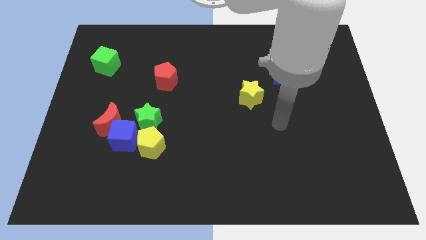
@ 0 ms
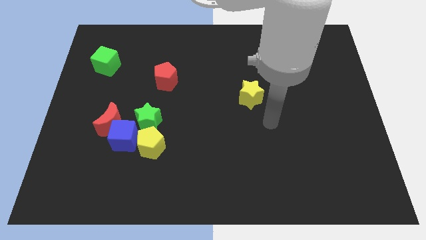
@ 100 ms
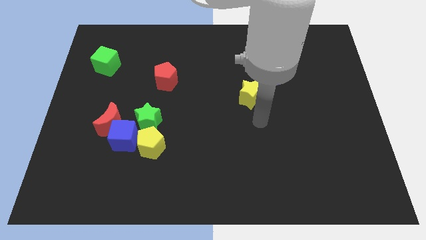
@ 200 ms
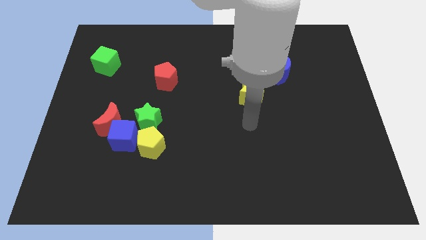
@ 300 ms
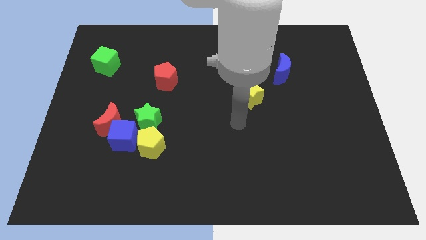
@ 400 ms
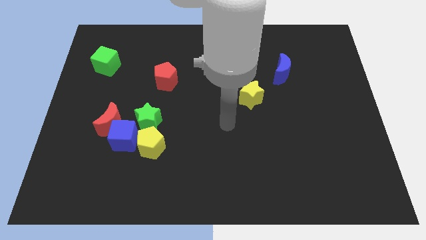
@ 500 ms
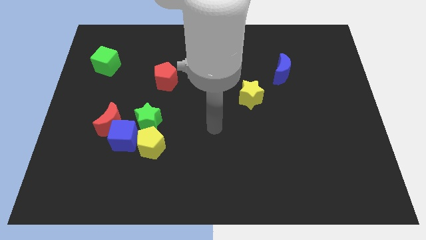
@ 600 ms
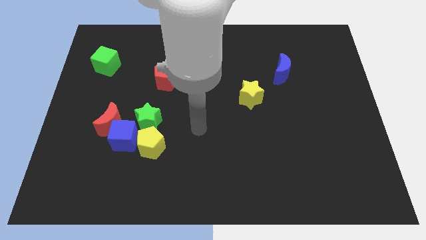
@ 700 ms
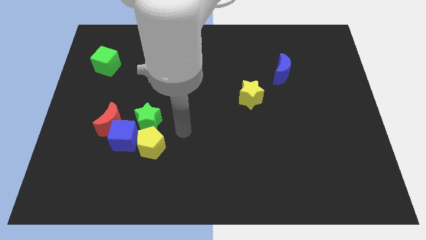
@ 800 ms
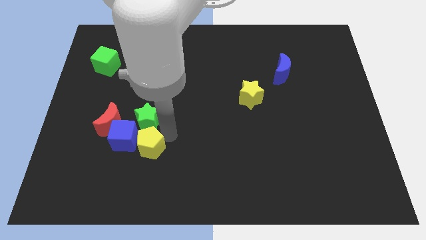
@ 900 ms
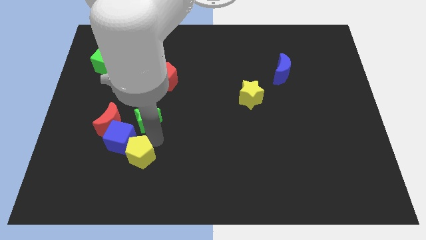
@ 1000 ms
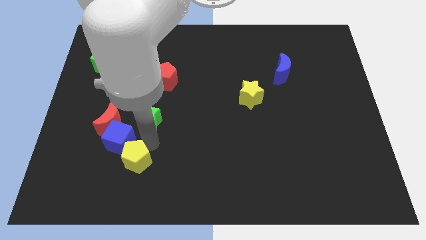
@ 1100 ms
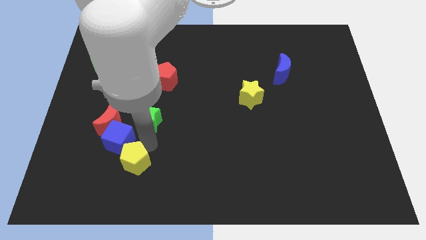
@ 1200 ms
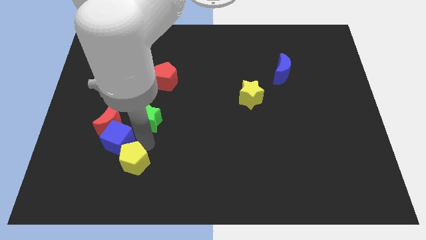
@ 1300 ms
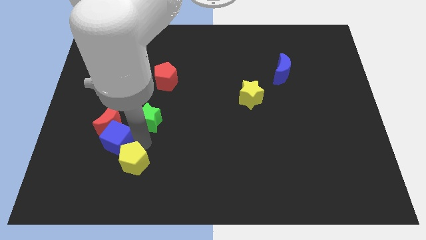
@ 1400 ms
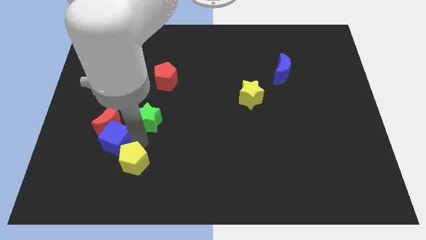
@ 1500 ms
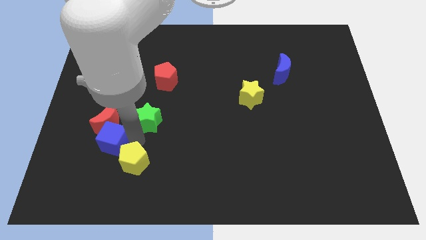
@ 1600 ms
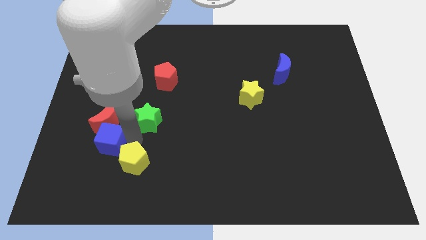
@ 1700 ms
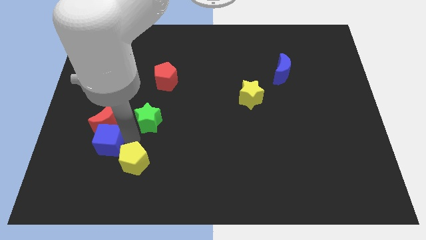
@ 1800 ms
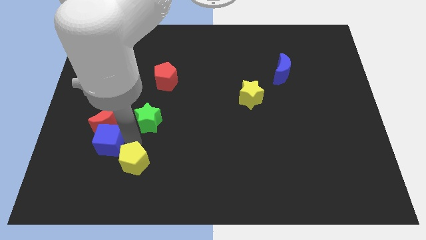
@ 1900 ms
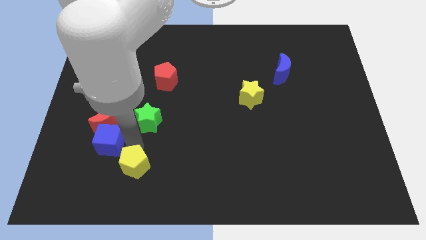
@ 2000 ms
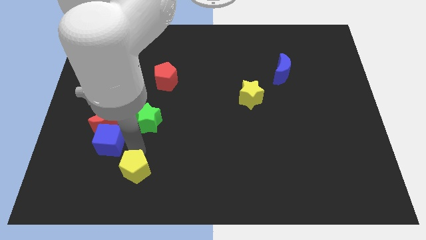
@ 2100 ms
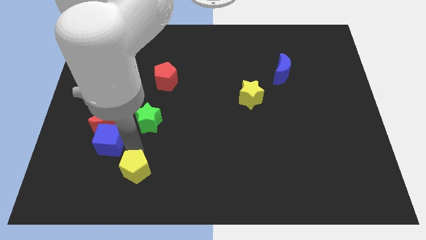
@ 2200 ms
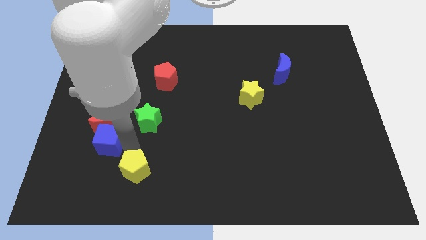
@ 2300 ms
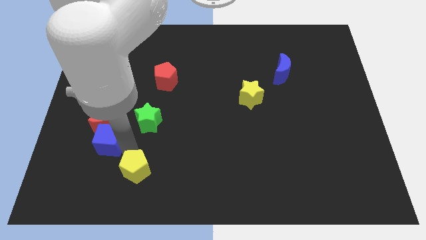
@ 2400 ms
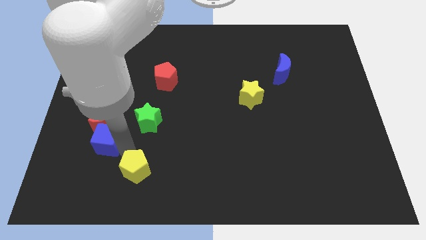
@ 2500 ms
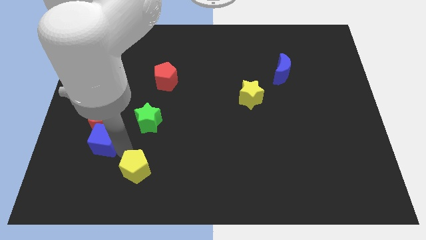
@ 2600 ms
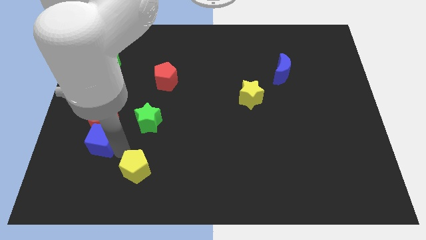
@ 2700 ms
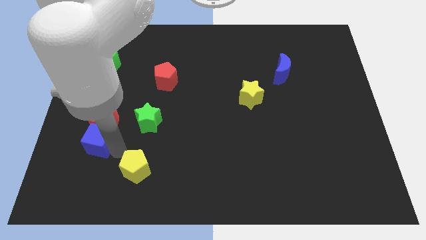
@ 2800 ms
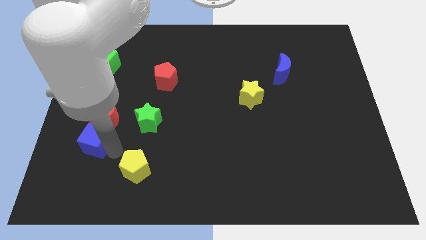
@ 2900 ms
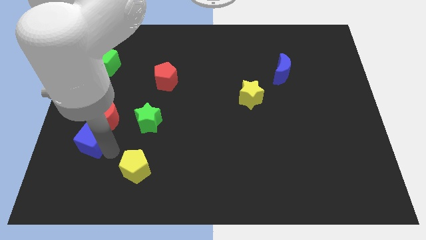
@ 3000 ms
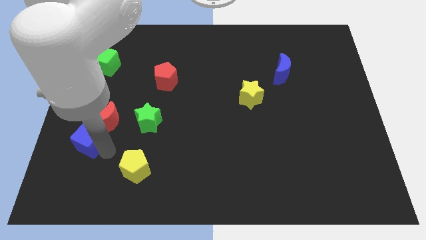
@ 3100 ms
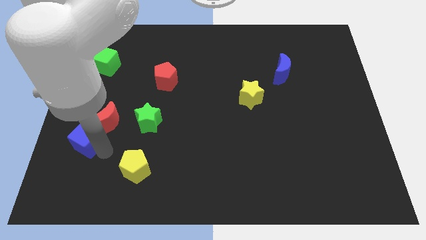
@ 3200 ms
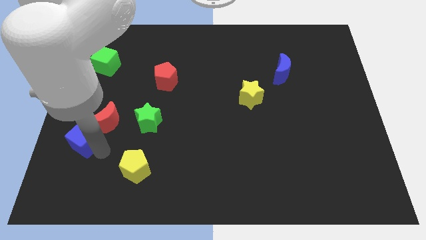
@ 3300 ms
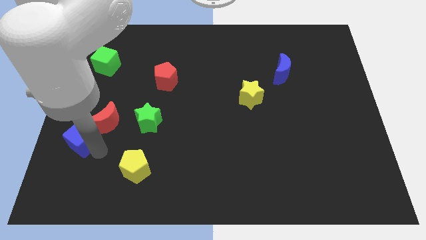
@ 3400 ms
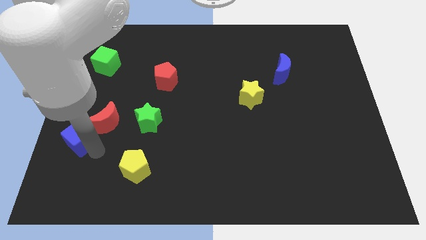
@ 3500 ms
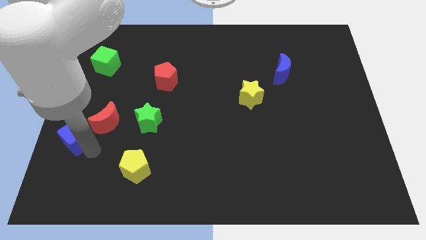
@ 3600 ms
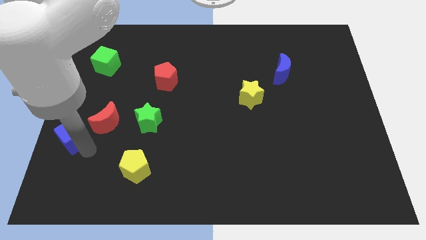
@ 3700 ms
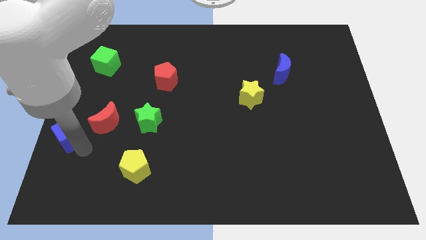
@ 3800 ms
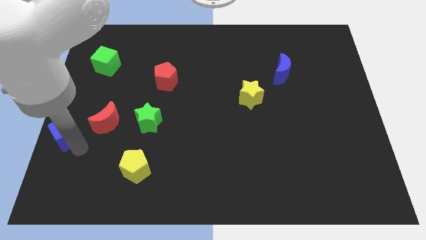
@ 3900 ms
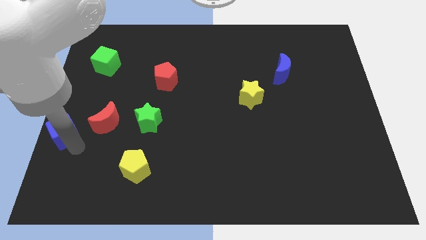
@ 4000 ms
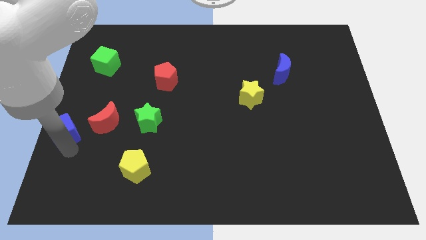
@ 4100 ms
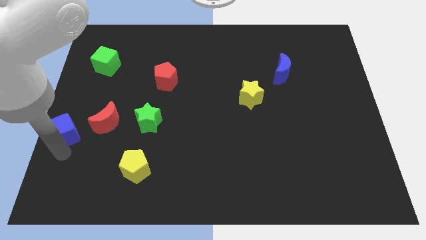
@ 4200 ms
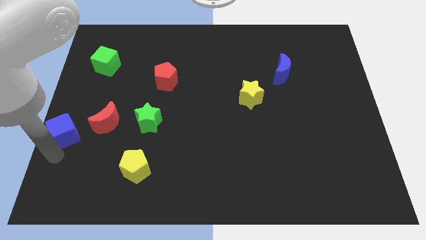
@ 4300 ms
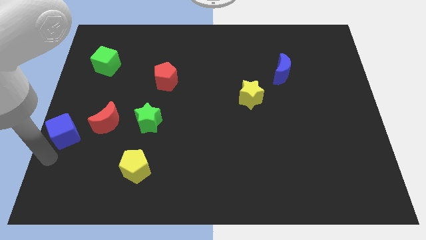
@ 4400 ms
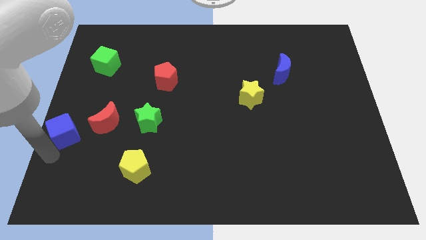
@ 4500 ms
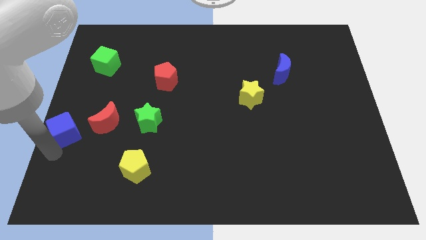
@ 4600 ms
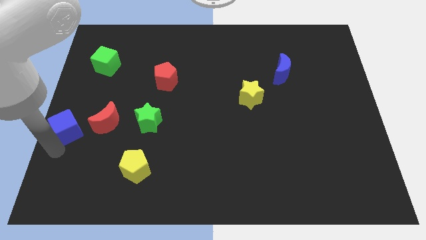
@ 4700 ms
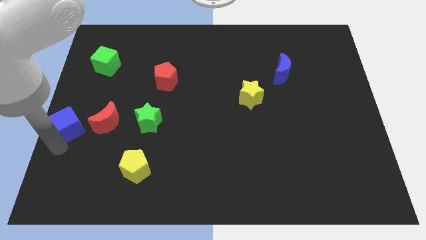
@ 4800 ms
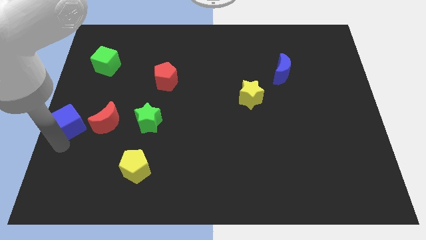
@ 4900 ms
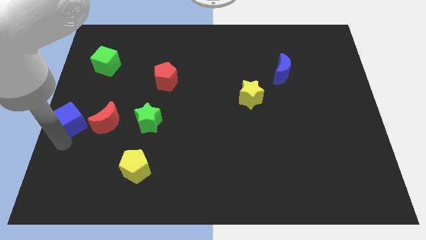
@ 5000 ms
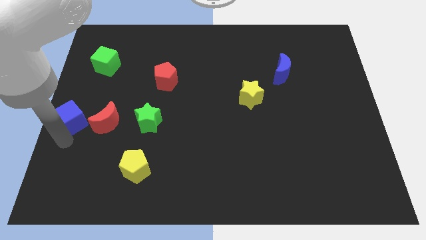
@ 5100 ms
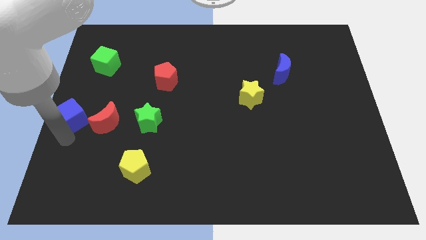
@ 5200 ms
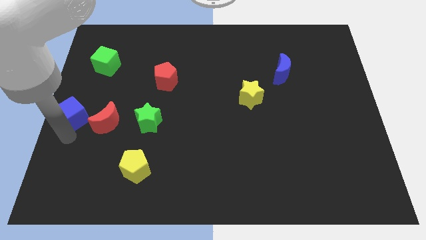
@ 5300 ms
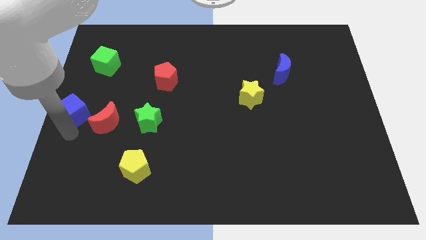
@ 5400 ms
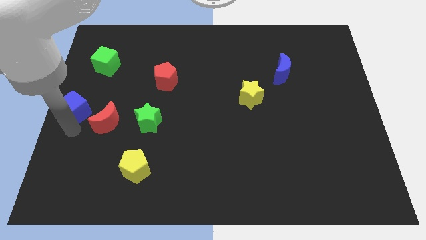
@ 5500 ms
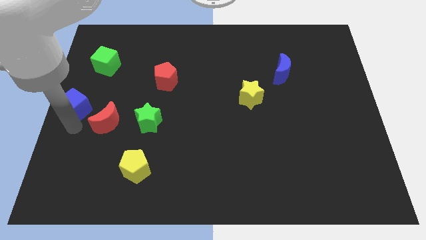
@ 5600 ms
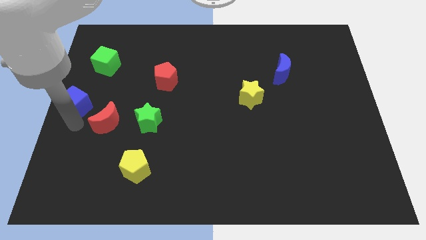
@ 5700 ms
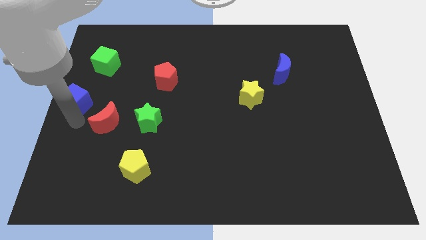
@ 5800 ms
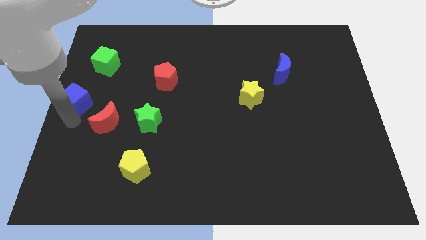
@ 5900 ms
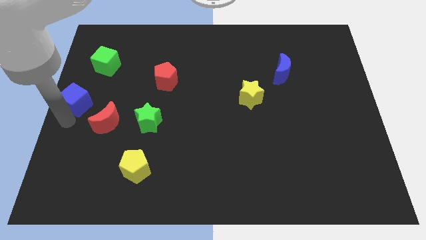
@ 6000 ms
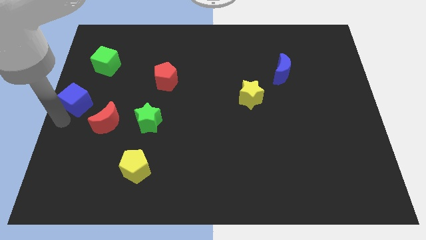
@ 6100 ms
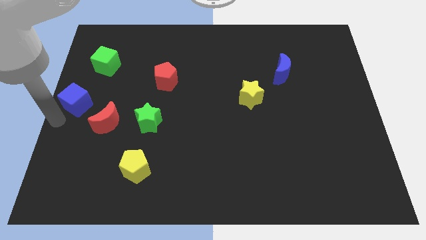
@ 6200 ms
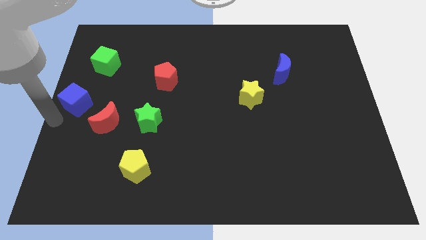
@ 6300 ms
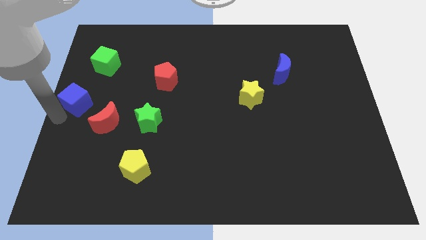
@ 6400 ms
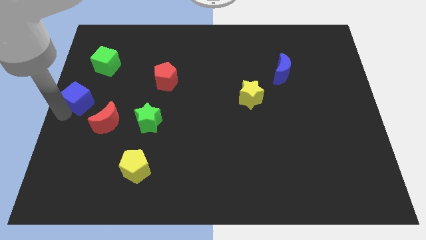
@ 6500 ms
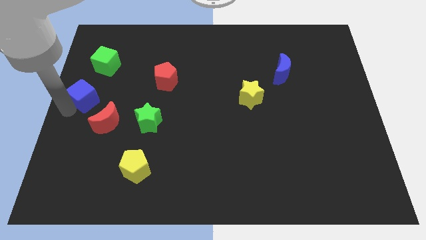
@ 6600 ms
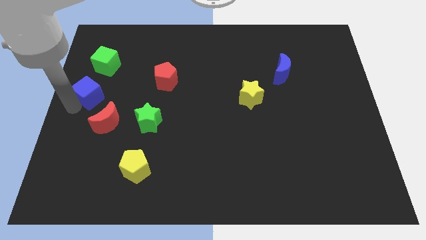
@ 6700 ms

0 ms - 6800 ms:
slide the blue cube slightly upwards

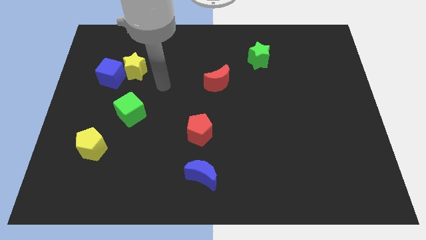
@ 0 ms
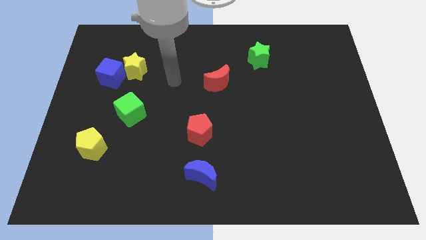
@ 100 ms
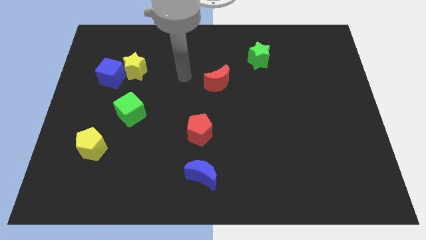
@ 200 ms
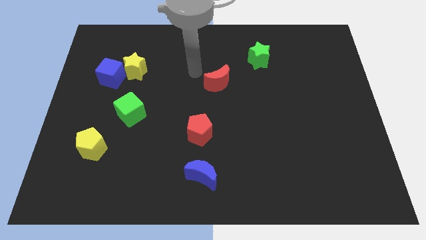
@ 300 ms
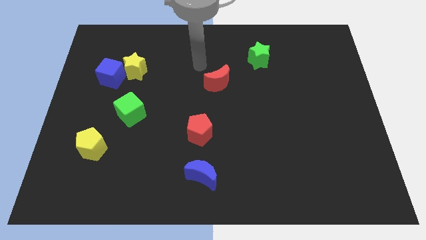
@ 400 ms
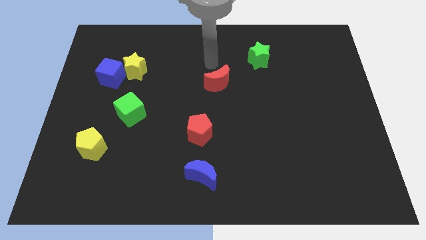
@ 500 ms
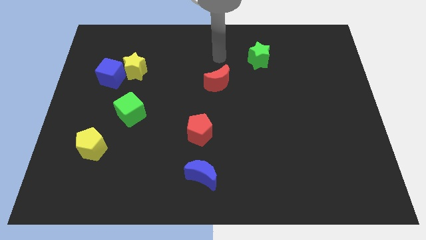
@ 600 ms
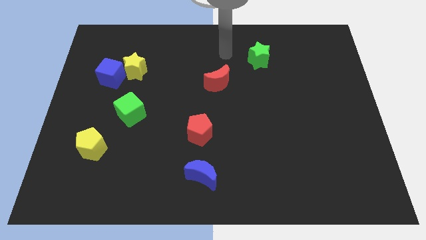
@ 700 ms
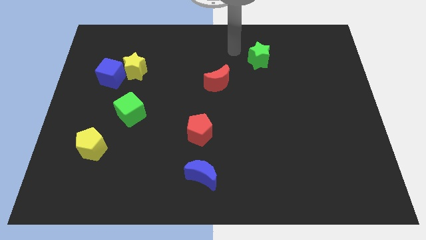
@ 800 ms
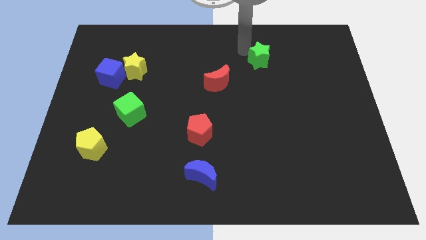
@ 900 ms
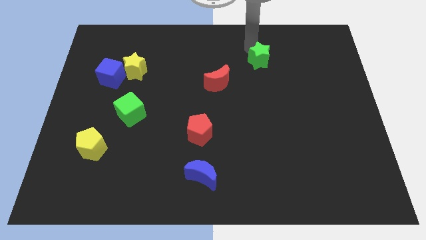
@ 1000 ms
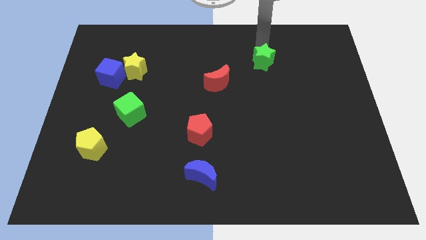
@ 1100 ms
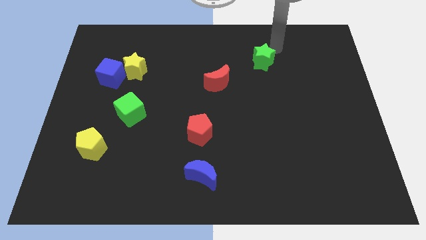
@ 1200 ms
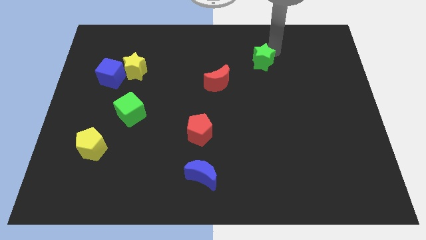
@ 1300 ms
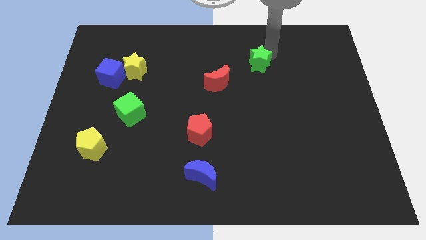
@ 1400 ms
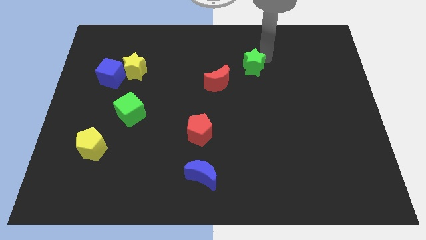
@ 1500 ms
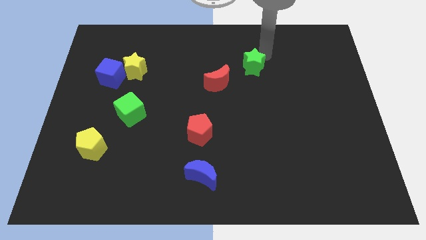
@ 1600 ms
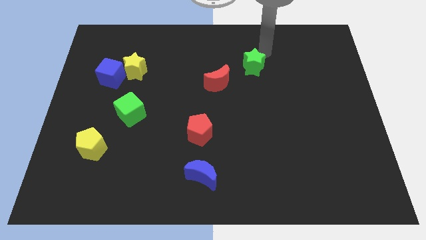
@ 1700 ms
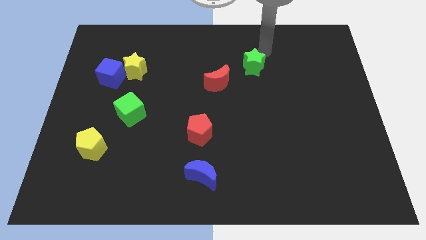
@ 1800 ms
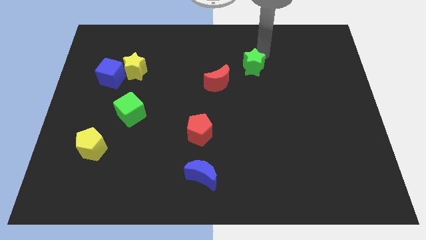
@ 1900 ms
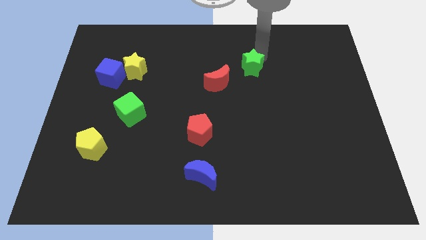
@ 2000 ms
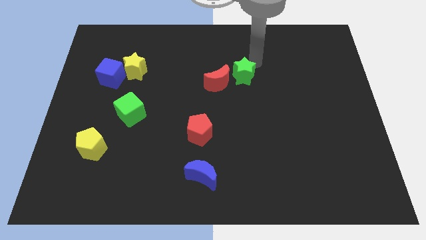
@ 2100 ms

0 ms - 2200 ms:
move the green star slightly down and to the left diagonally
